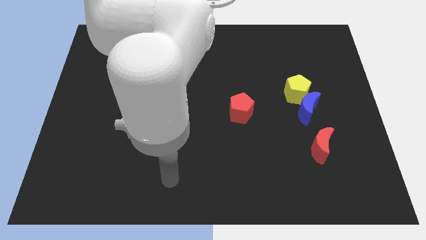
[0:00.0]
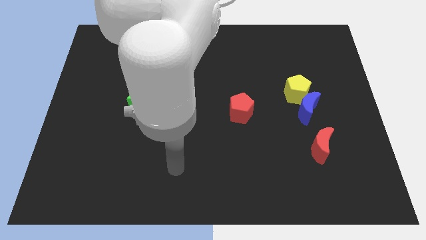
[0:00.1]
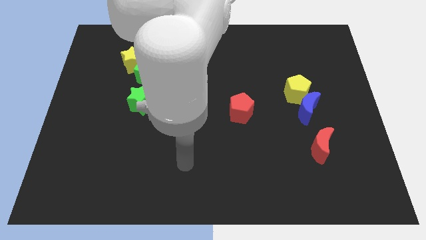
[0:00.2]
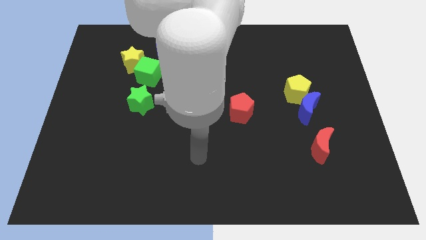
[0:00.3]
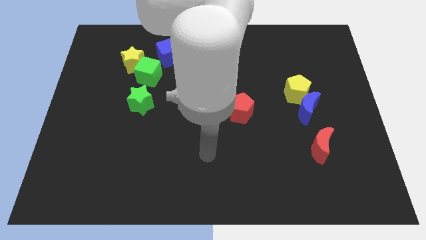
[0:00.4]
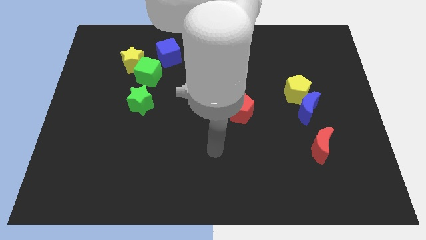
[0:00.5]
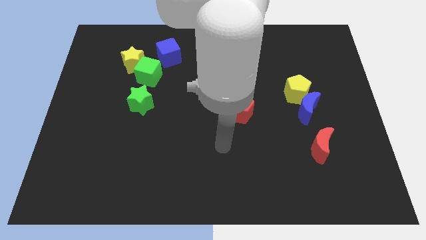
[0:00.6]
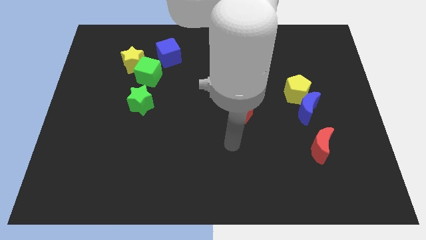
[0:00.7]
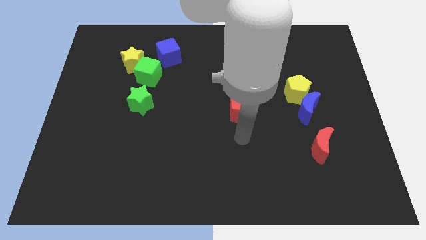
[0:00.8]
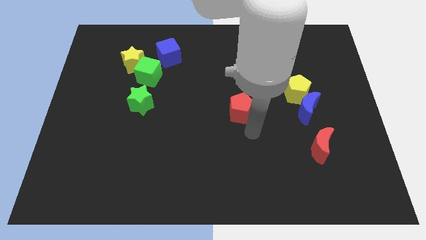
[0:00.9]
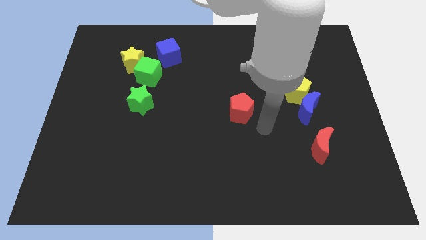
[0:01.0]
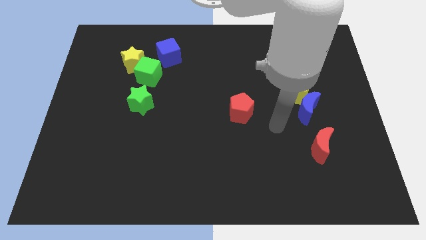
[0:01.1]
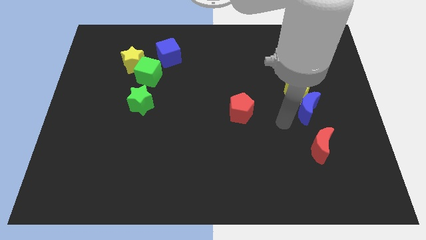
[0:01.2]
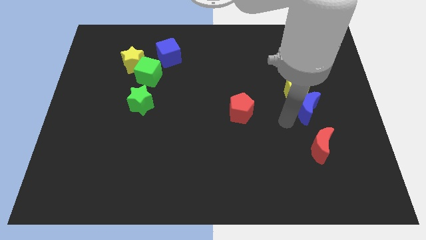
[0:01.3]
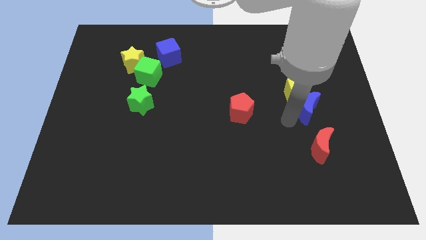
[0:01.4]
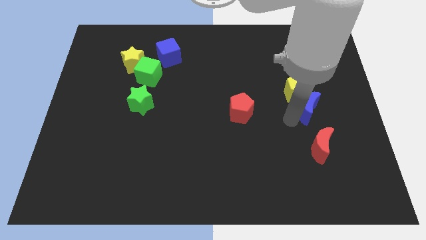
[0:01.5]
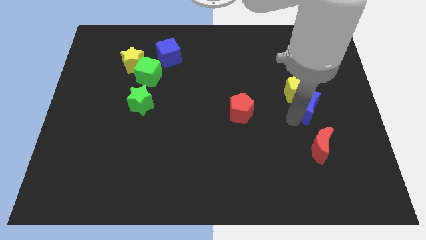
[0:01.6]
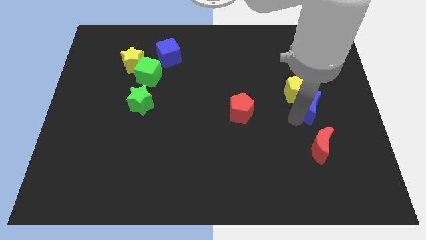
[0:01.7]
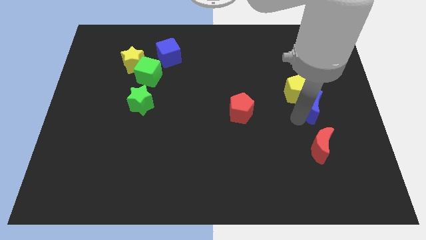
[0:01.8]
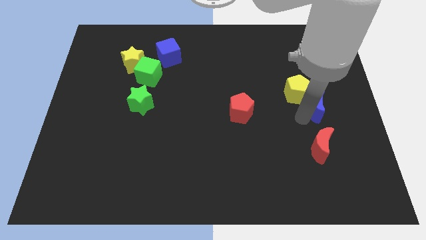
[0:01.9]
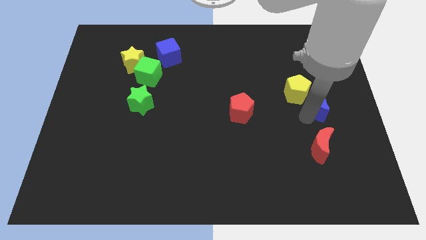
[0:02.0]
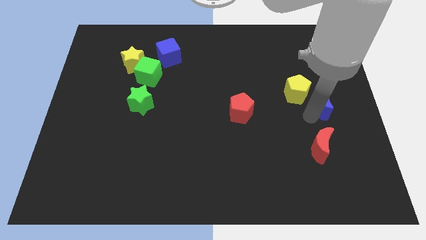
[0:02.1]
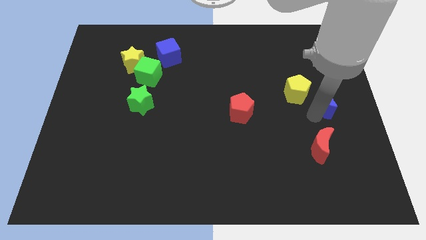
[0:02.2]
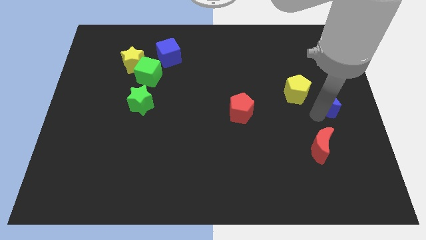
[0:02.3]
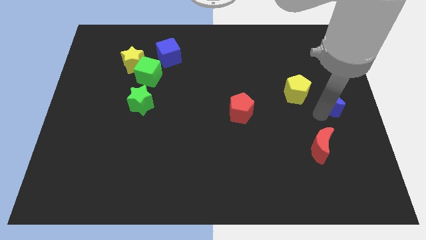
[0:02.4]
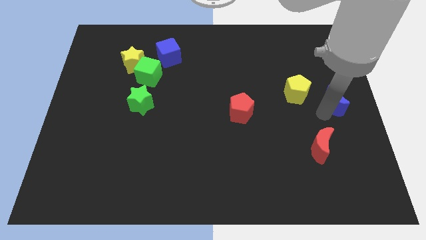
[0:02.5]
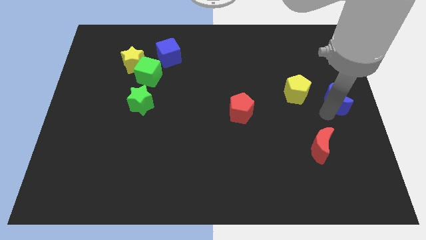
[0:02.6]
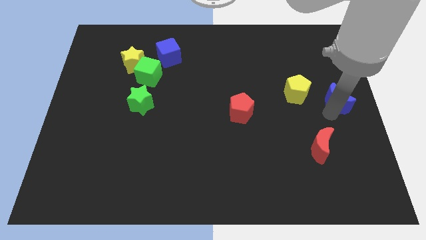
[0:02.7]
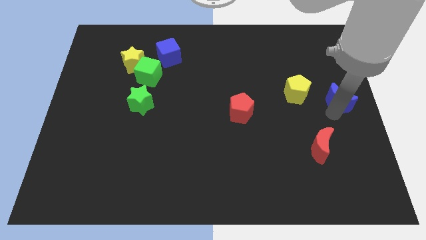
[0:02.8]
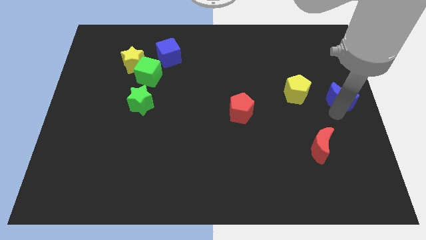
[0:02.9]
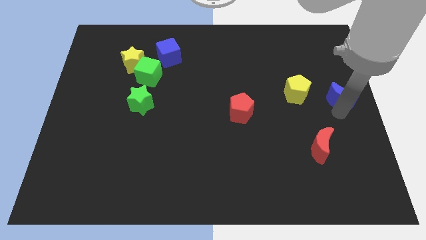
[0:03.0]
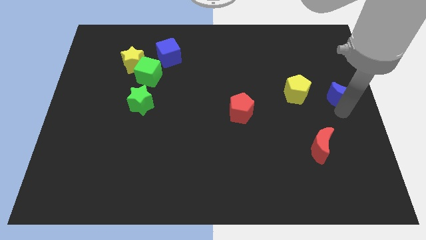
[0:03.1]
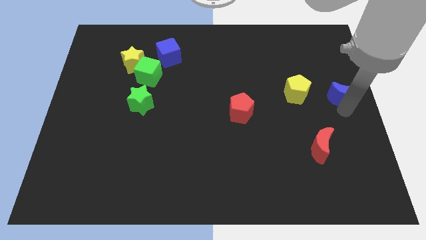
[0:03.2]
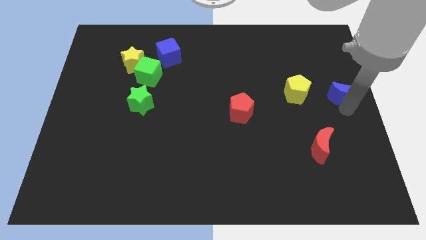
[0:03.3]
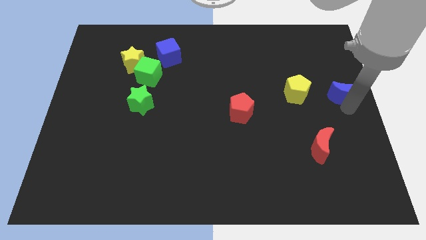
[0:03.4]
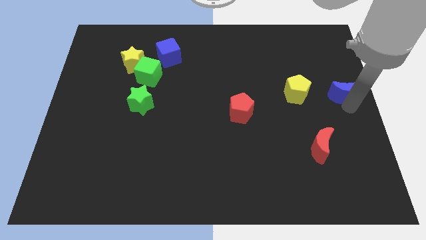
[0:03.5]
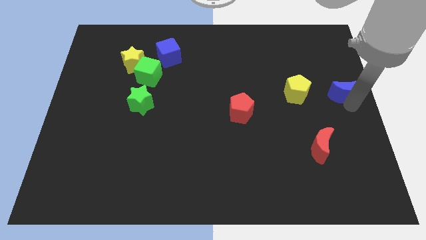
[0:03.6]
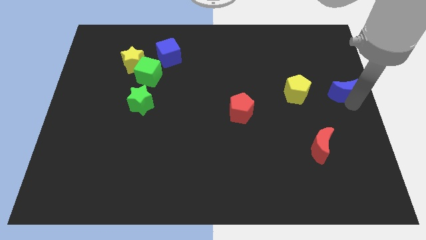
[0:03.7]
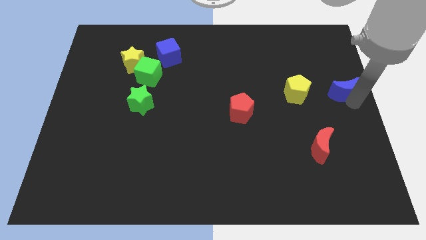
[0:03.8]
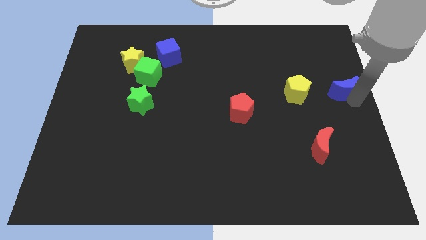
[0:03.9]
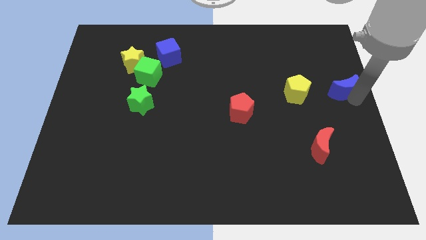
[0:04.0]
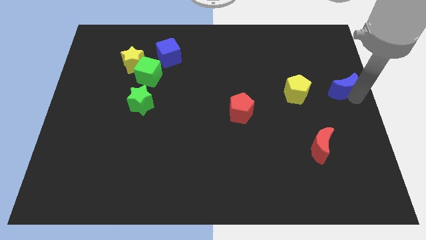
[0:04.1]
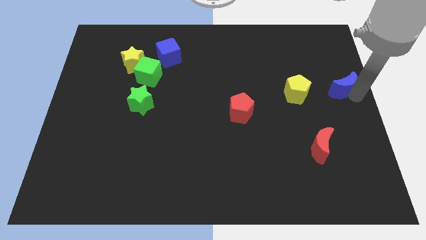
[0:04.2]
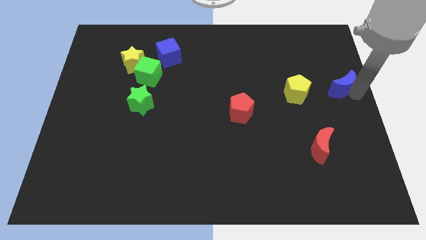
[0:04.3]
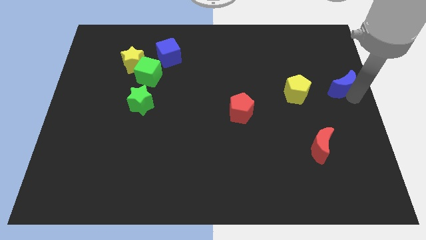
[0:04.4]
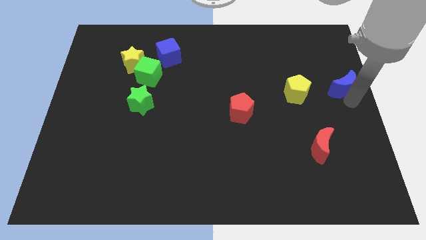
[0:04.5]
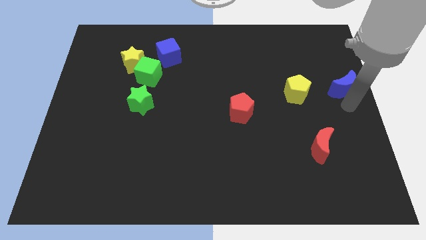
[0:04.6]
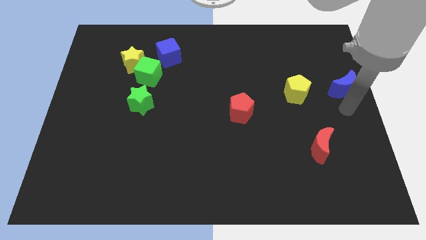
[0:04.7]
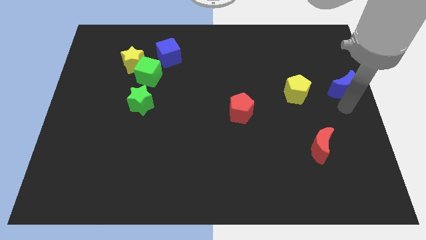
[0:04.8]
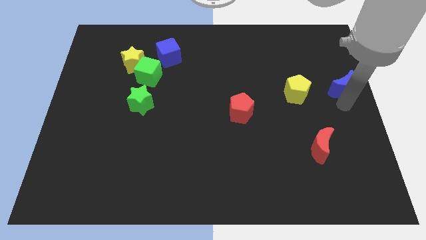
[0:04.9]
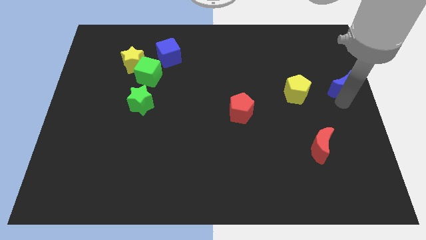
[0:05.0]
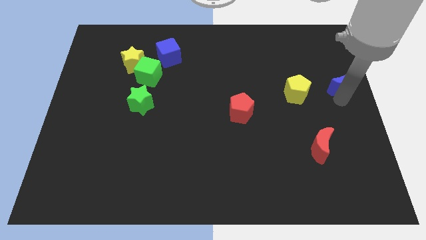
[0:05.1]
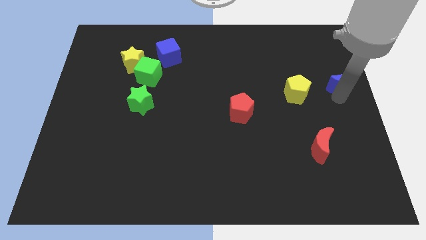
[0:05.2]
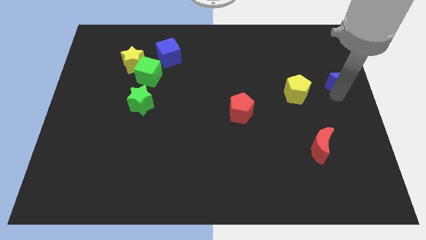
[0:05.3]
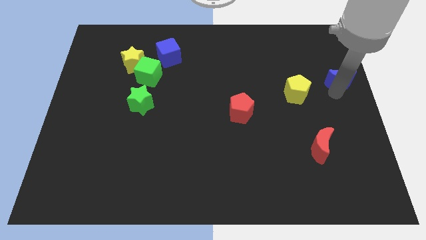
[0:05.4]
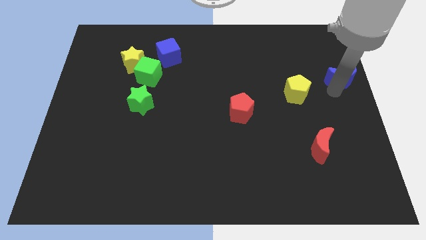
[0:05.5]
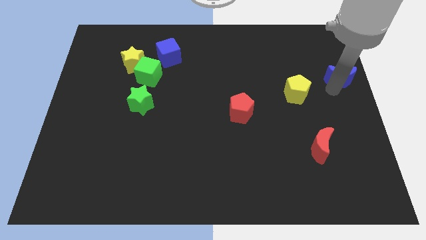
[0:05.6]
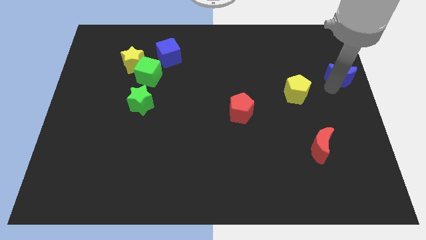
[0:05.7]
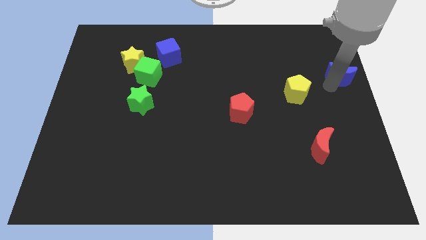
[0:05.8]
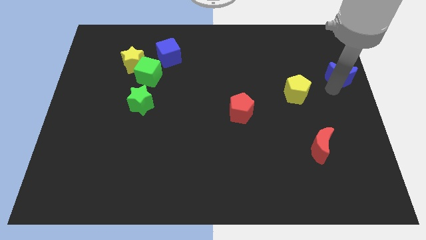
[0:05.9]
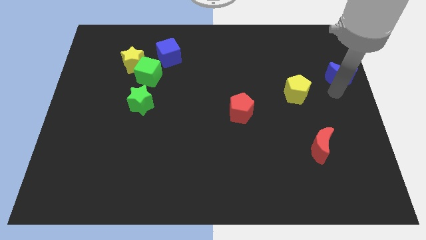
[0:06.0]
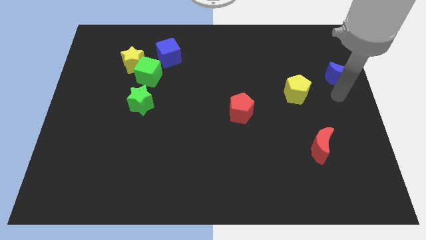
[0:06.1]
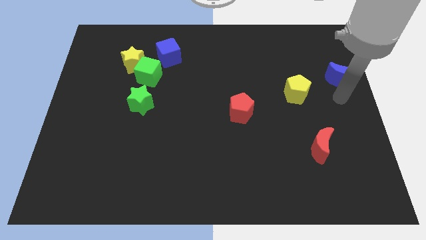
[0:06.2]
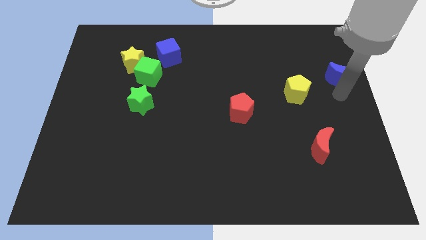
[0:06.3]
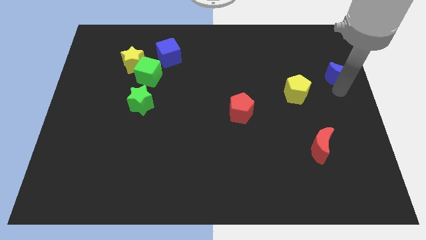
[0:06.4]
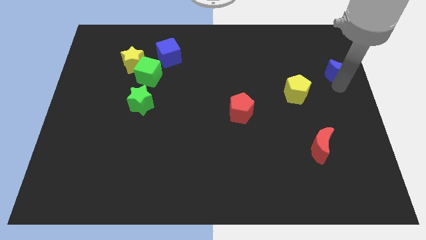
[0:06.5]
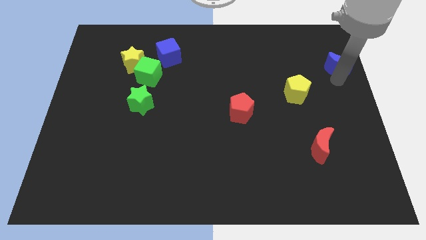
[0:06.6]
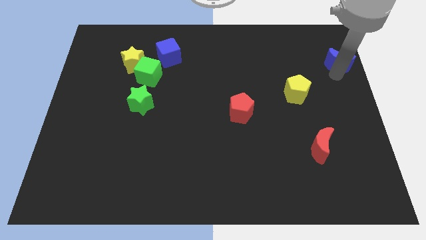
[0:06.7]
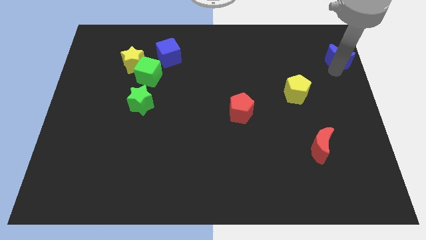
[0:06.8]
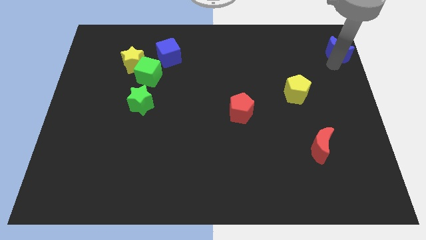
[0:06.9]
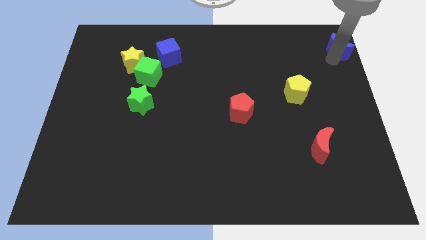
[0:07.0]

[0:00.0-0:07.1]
put the blue moon to the top right of the board

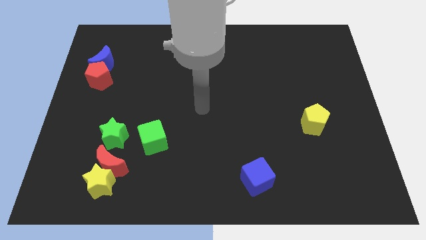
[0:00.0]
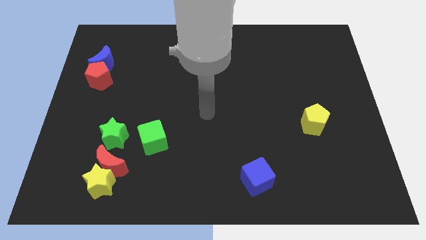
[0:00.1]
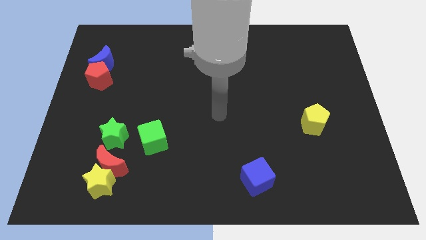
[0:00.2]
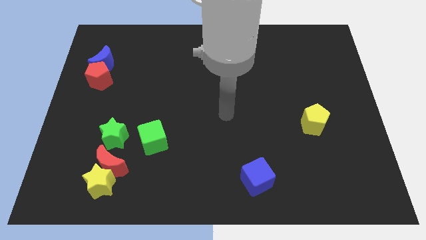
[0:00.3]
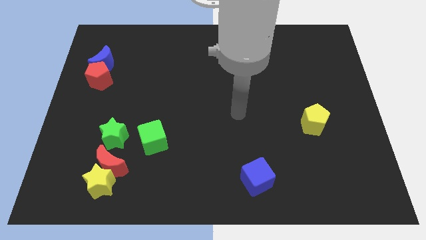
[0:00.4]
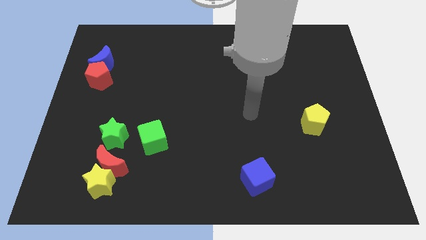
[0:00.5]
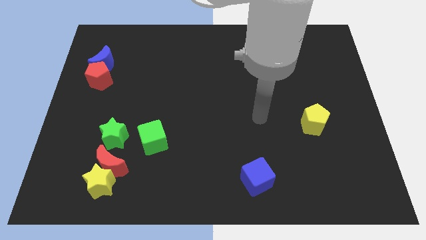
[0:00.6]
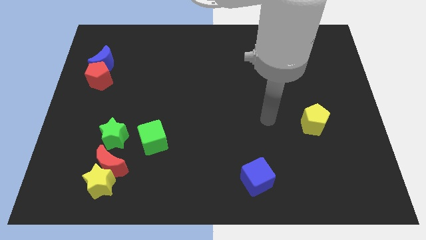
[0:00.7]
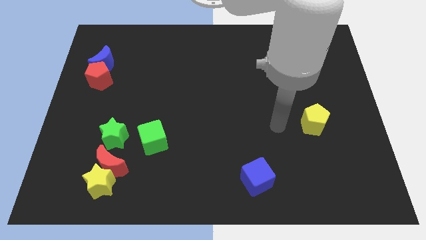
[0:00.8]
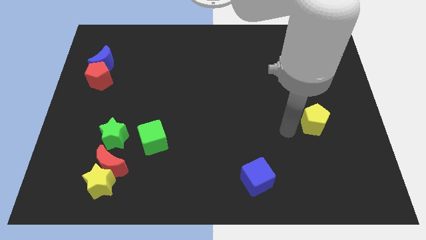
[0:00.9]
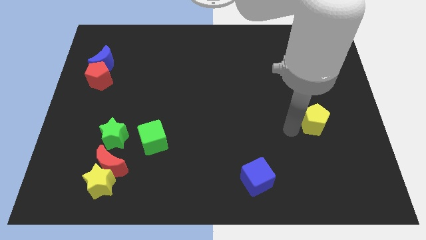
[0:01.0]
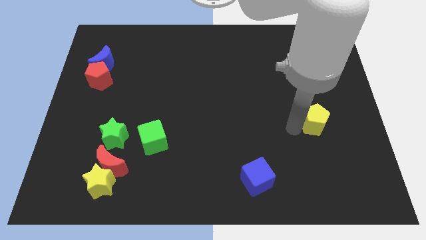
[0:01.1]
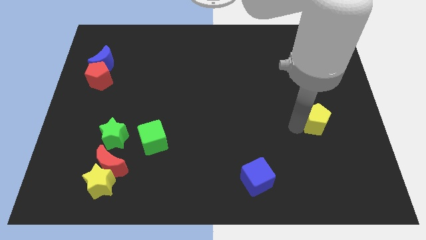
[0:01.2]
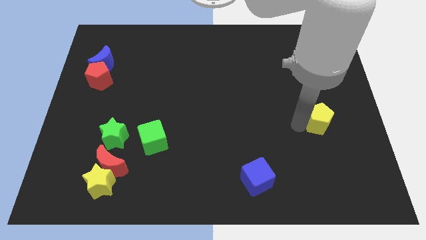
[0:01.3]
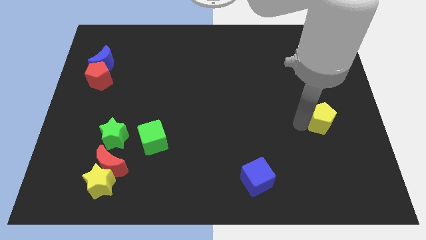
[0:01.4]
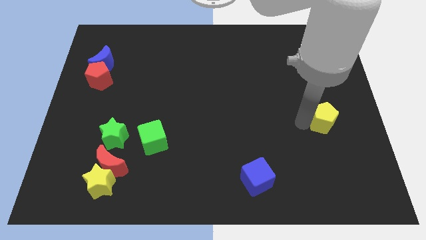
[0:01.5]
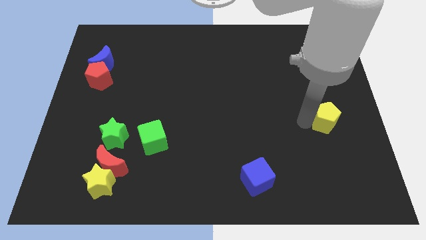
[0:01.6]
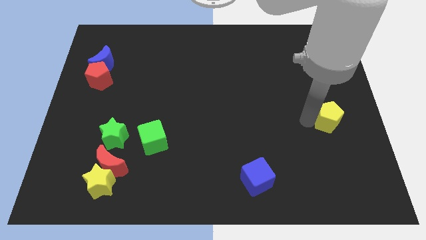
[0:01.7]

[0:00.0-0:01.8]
push the yellow pentagon to the right side of the board
